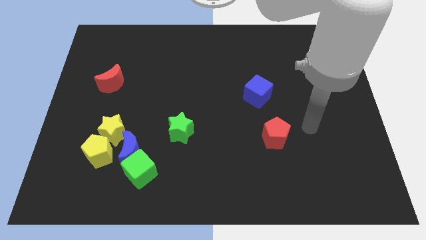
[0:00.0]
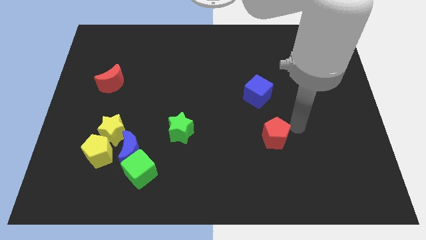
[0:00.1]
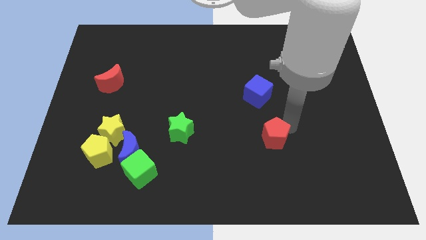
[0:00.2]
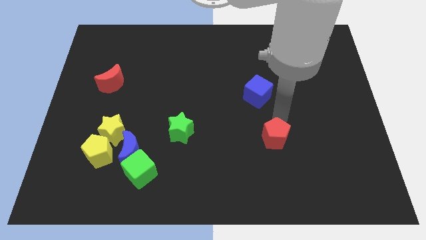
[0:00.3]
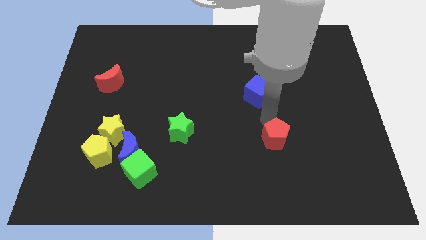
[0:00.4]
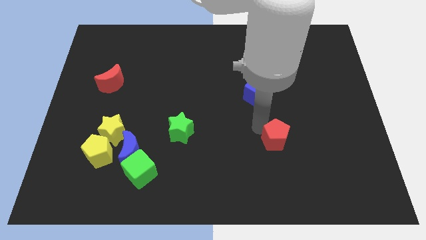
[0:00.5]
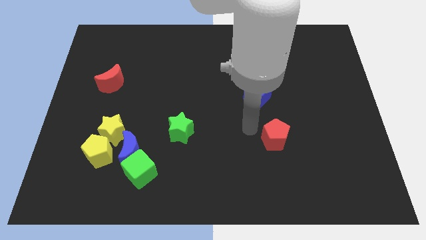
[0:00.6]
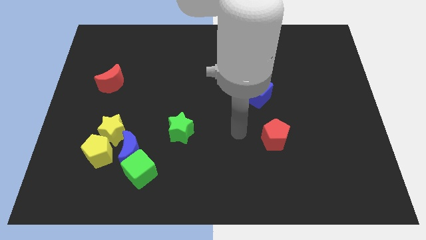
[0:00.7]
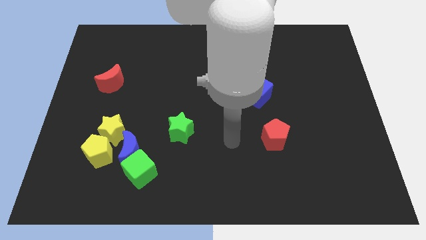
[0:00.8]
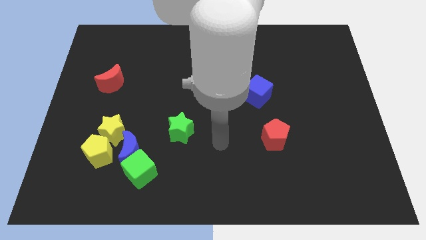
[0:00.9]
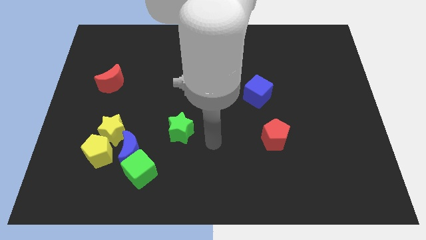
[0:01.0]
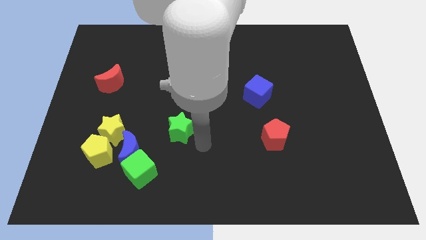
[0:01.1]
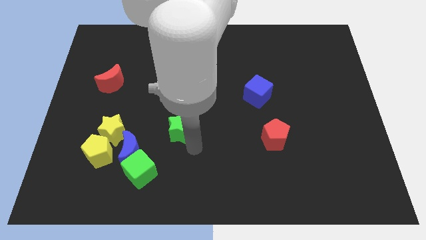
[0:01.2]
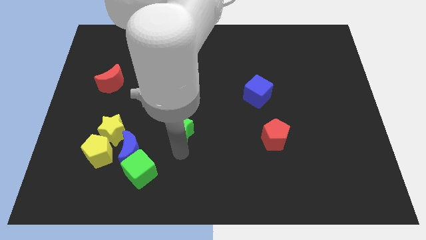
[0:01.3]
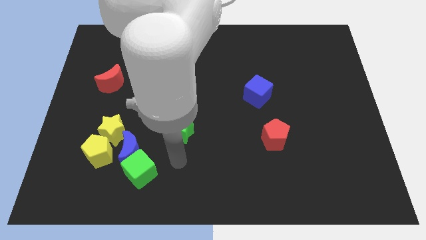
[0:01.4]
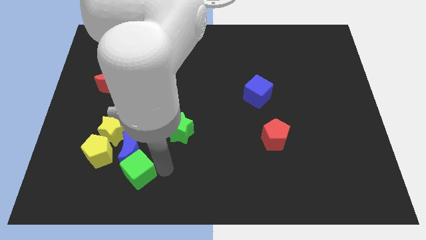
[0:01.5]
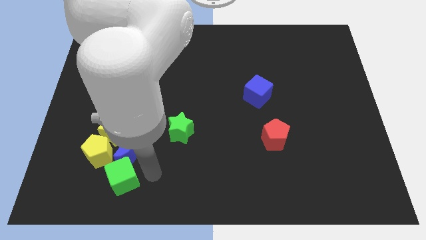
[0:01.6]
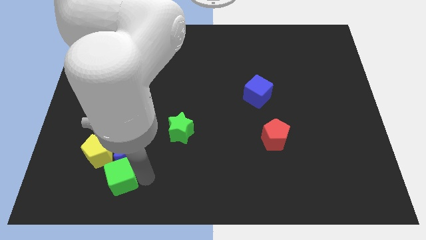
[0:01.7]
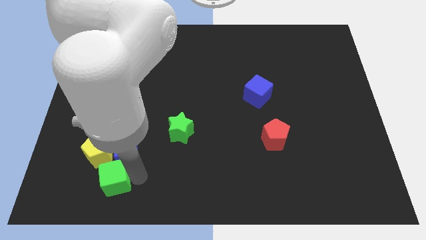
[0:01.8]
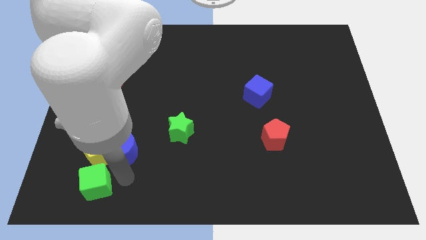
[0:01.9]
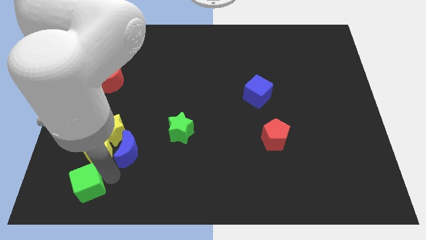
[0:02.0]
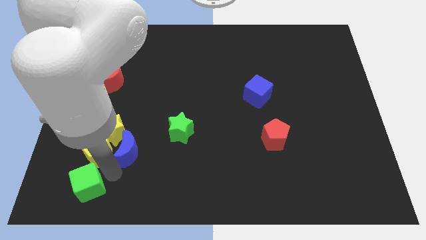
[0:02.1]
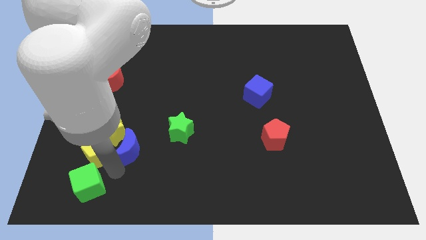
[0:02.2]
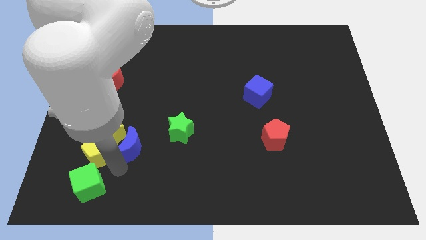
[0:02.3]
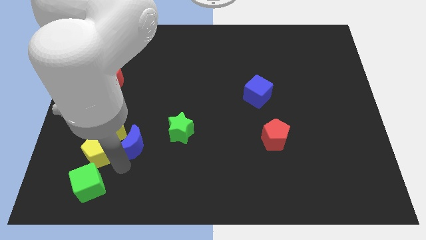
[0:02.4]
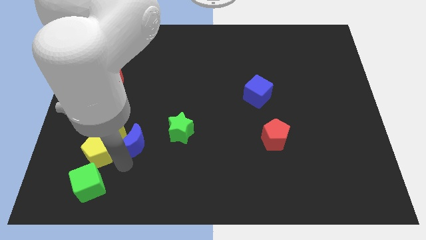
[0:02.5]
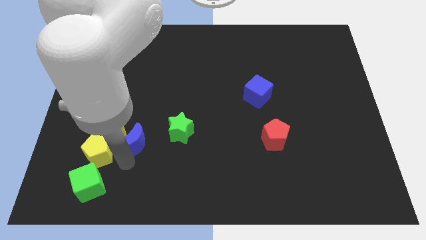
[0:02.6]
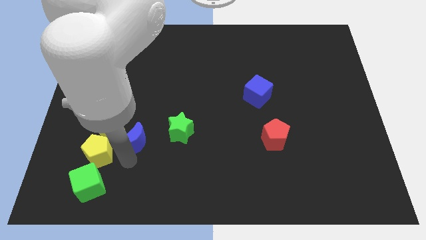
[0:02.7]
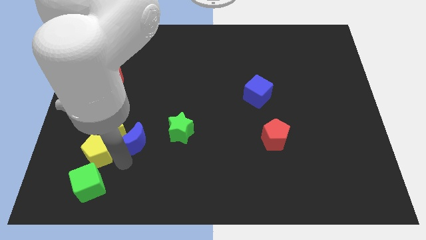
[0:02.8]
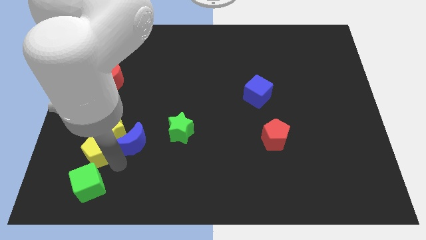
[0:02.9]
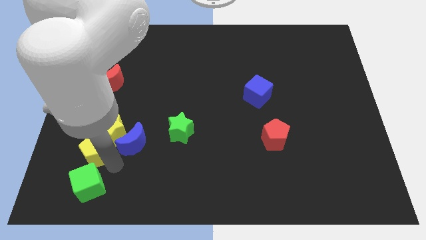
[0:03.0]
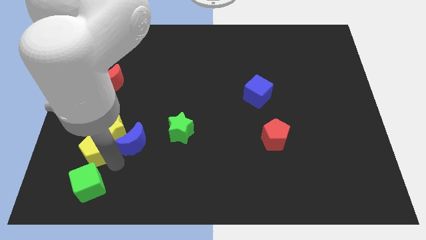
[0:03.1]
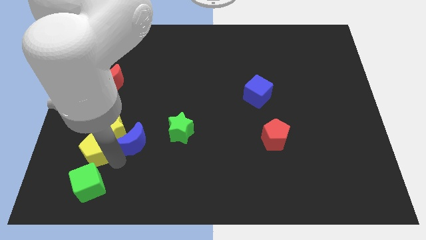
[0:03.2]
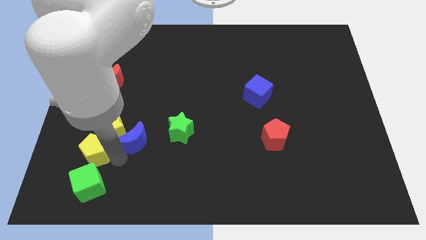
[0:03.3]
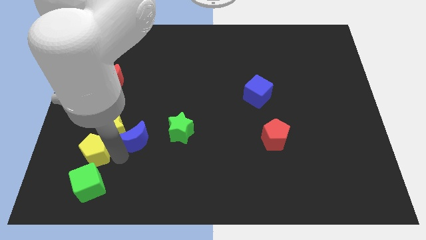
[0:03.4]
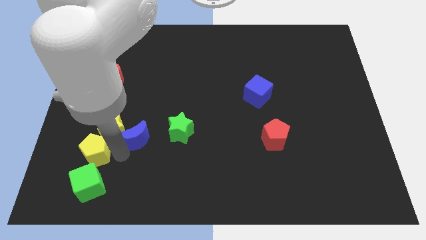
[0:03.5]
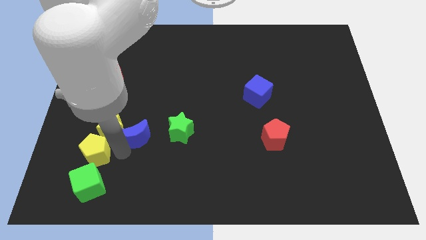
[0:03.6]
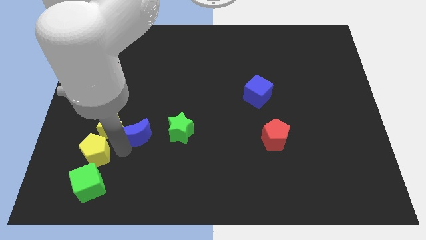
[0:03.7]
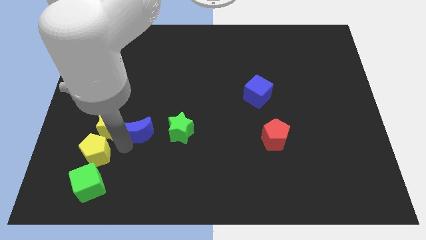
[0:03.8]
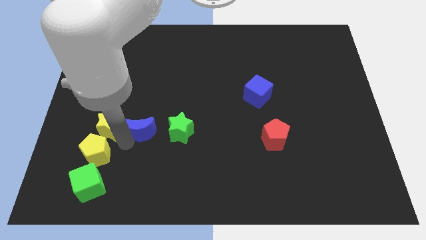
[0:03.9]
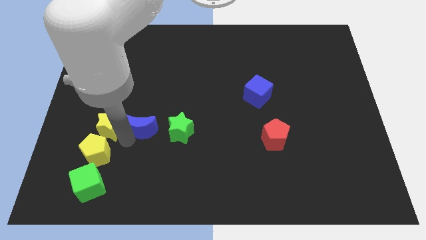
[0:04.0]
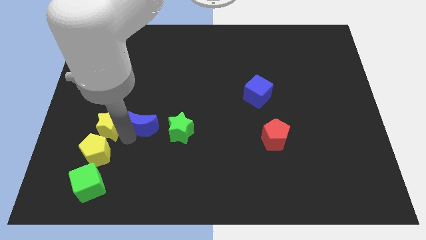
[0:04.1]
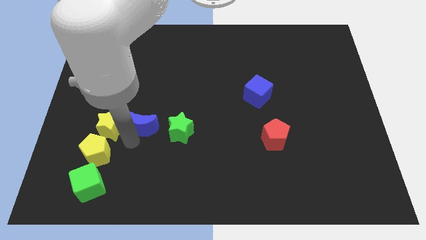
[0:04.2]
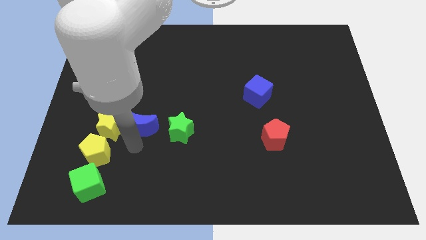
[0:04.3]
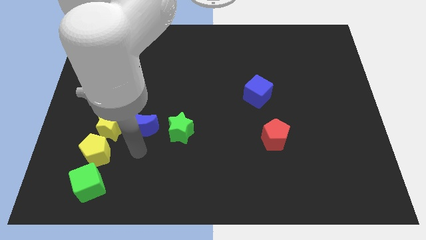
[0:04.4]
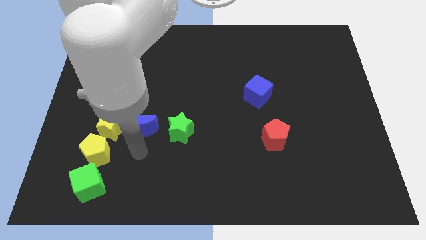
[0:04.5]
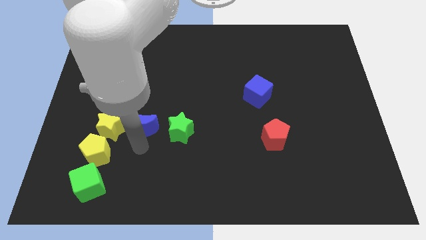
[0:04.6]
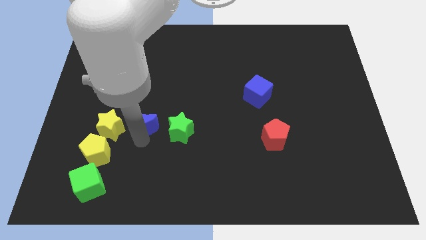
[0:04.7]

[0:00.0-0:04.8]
move the blue moon a bit up

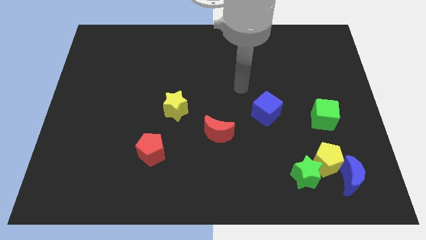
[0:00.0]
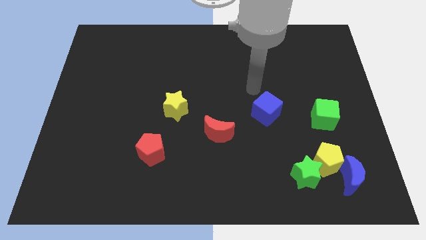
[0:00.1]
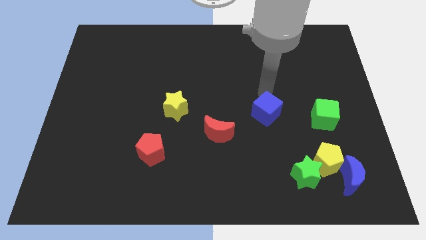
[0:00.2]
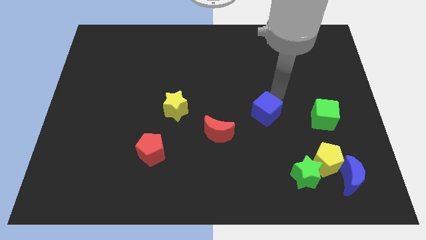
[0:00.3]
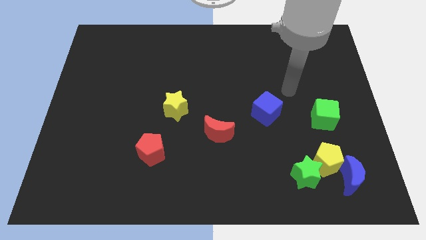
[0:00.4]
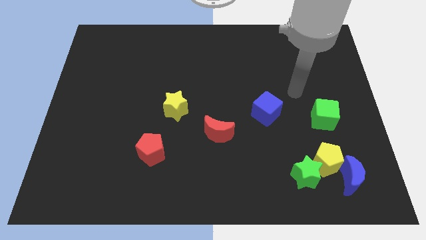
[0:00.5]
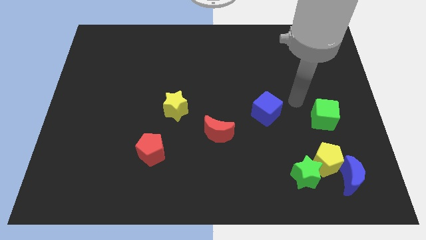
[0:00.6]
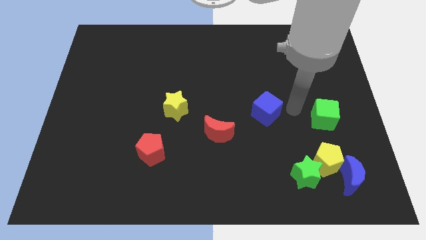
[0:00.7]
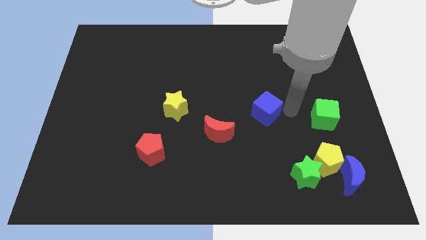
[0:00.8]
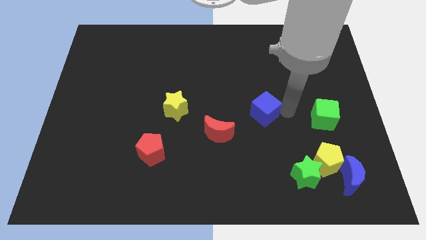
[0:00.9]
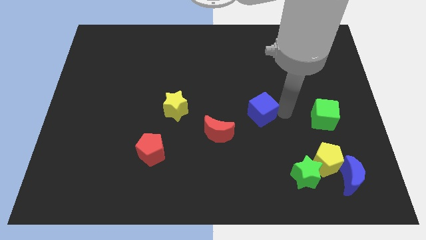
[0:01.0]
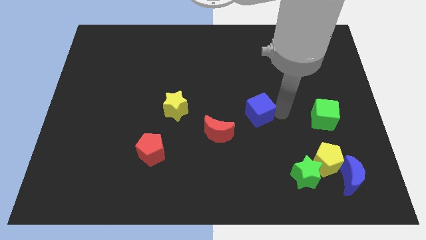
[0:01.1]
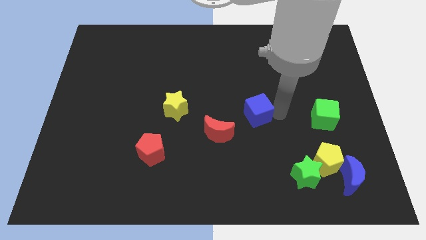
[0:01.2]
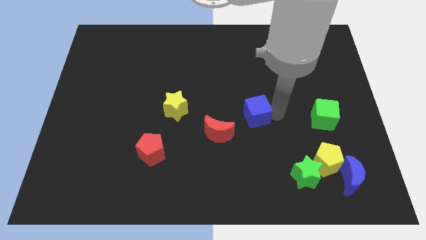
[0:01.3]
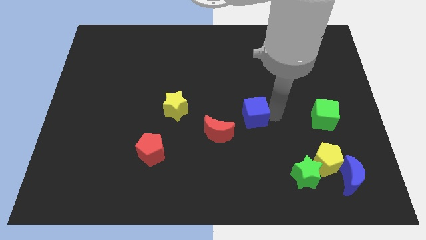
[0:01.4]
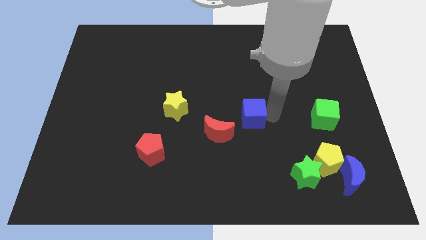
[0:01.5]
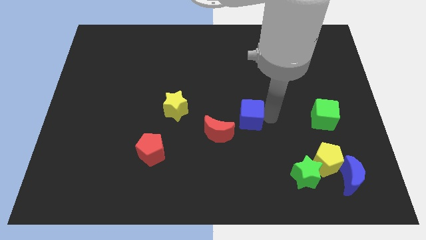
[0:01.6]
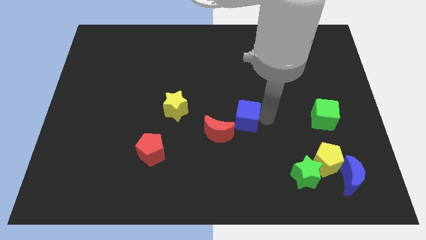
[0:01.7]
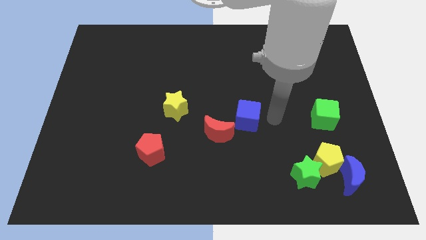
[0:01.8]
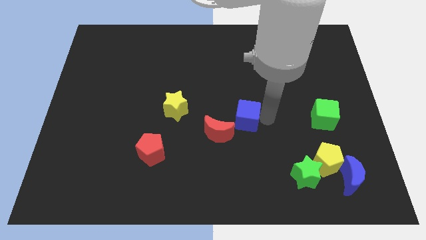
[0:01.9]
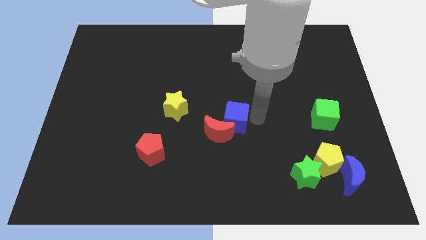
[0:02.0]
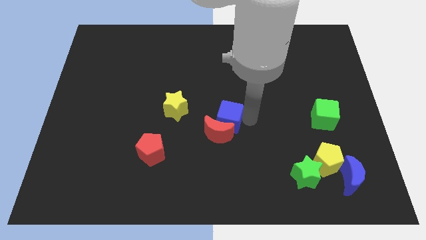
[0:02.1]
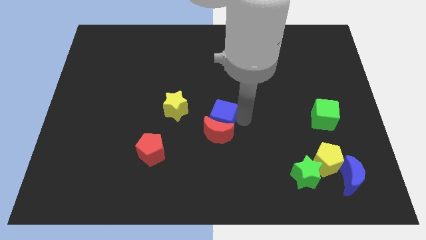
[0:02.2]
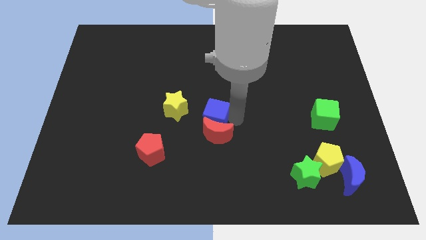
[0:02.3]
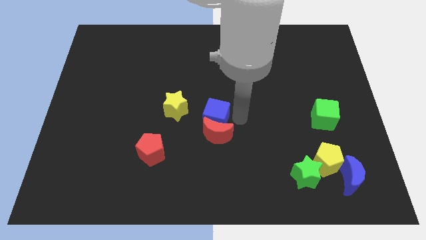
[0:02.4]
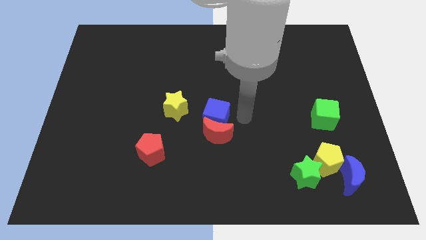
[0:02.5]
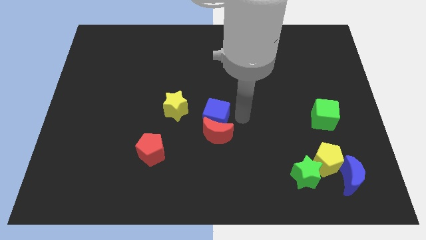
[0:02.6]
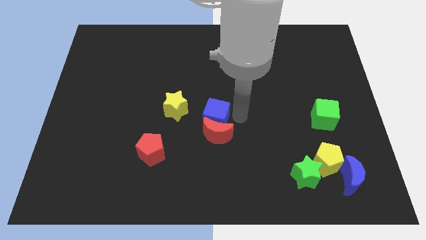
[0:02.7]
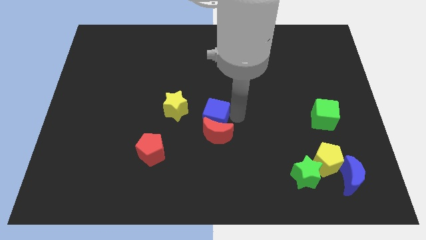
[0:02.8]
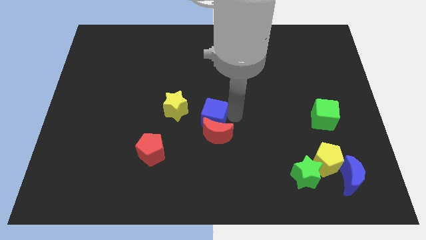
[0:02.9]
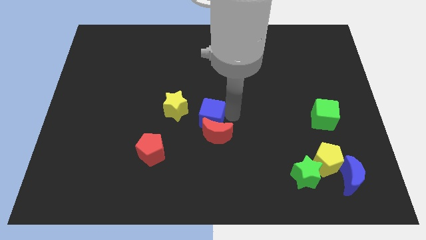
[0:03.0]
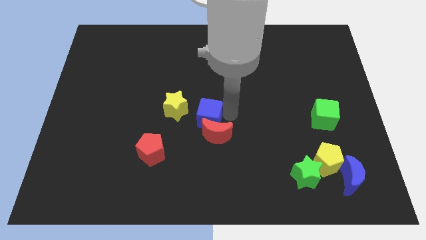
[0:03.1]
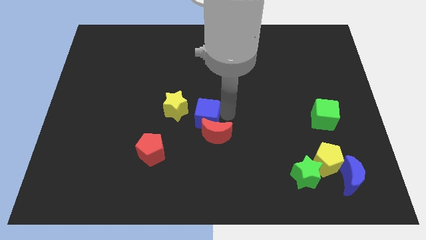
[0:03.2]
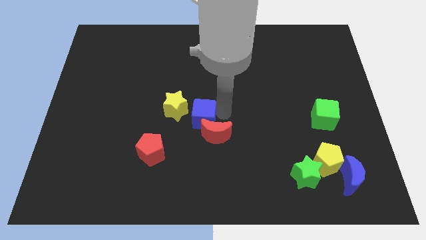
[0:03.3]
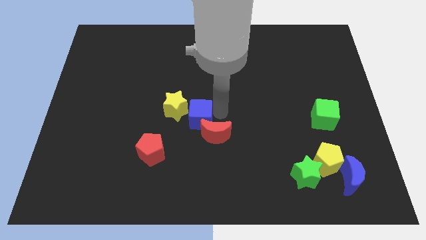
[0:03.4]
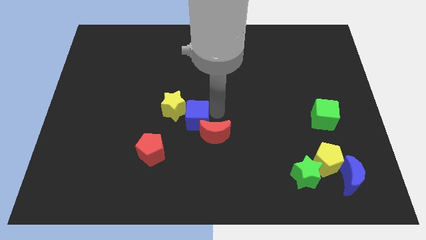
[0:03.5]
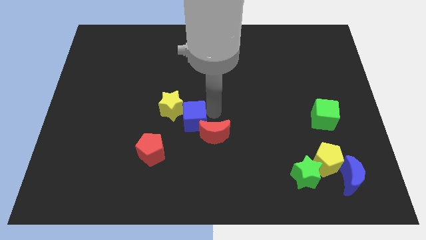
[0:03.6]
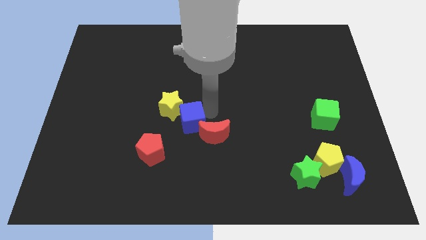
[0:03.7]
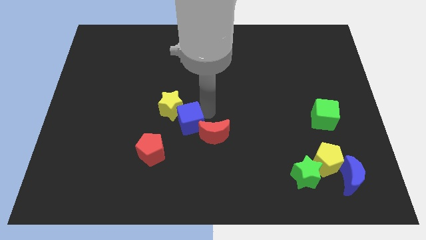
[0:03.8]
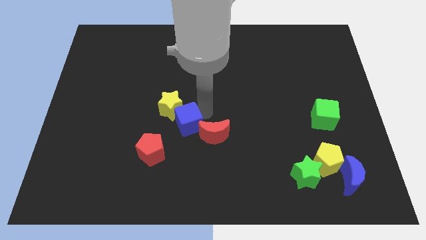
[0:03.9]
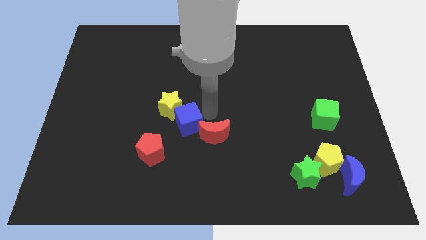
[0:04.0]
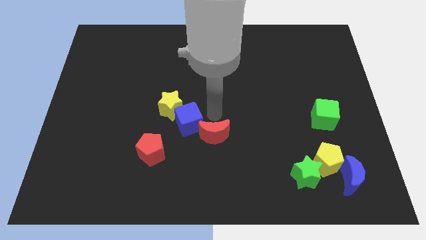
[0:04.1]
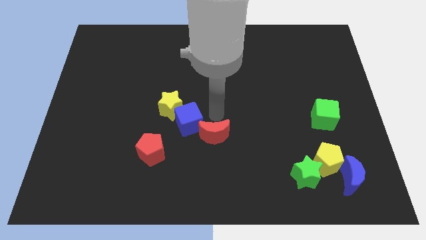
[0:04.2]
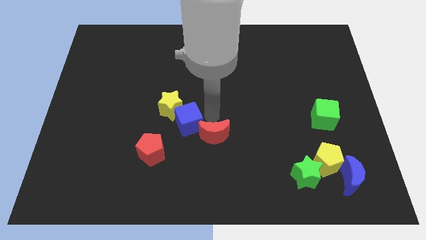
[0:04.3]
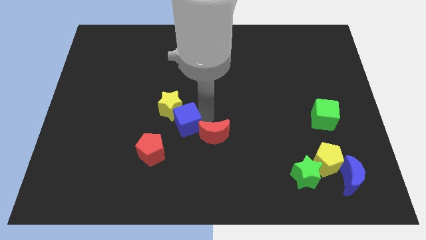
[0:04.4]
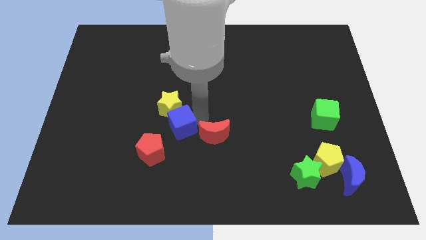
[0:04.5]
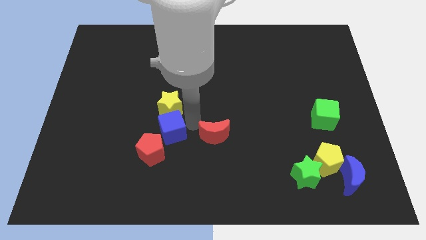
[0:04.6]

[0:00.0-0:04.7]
move the blue cube left
